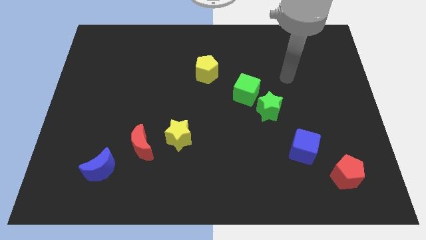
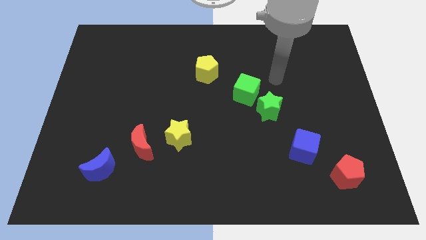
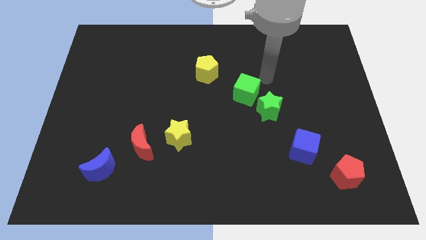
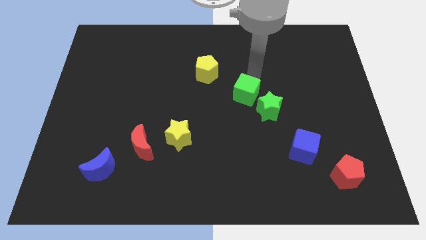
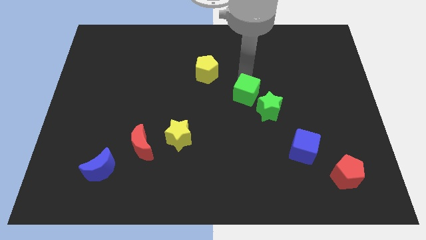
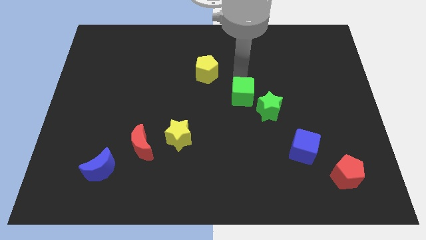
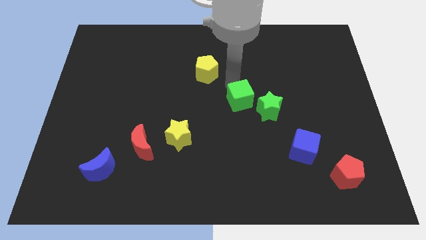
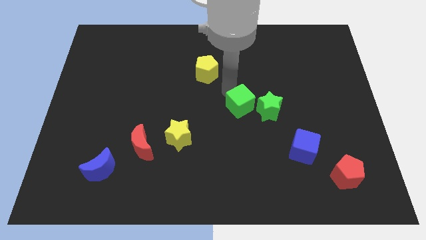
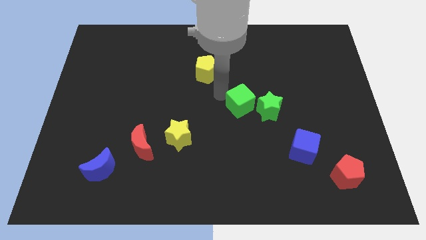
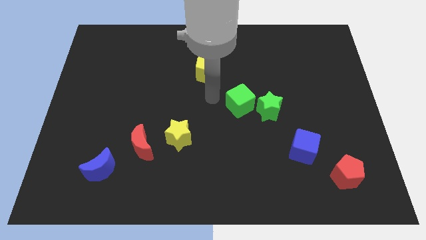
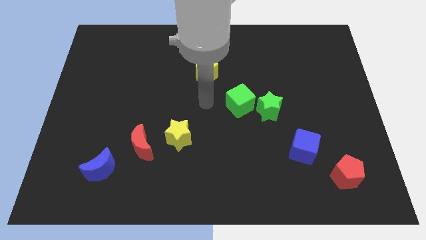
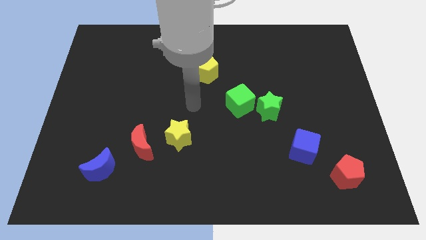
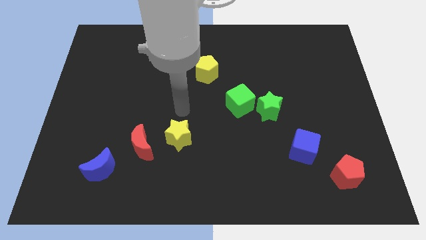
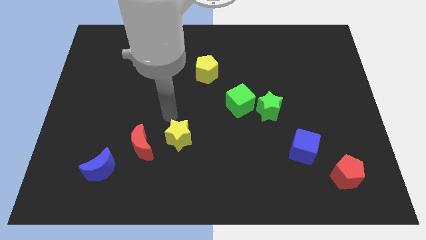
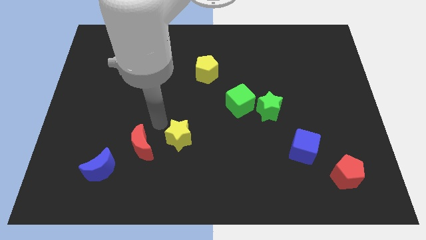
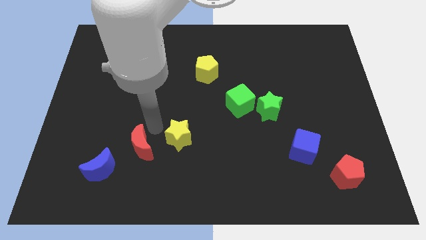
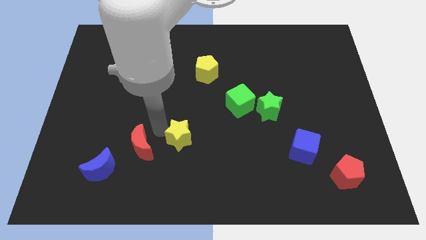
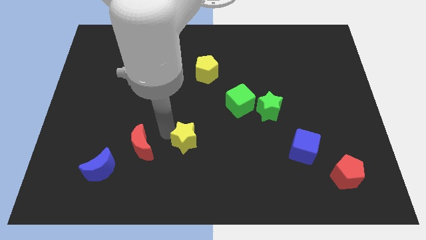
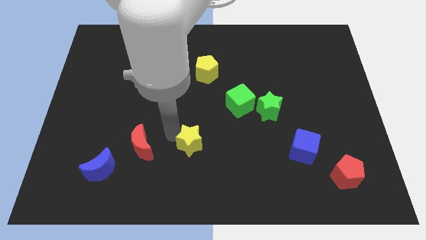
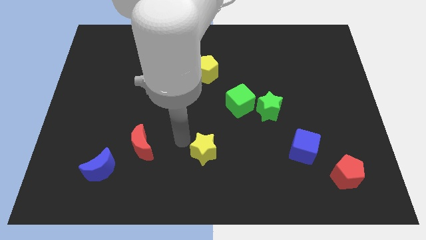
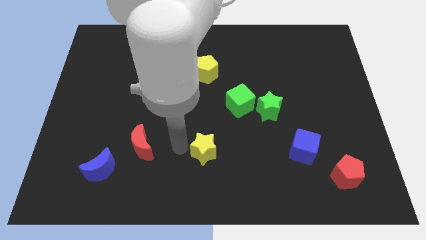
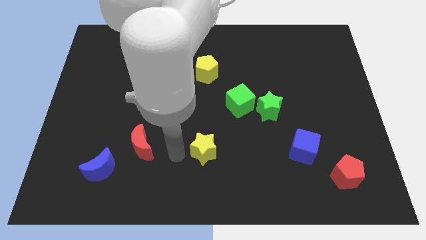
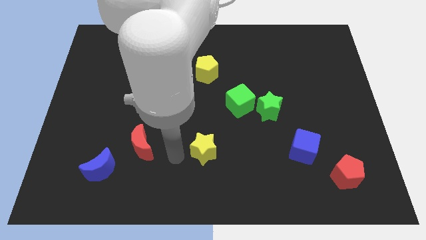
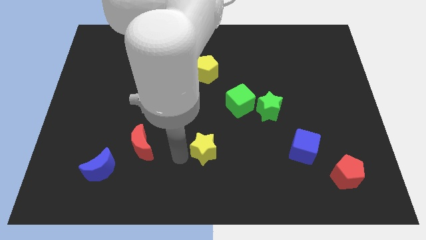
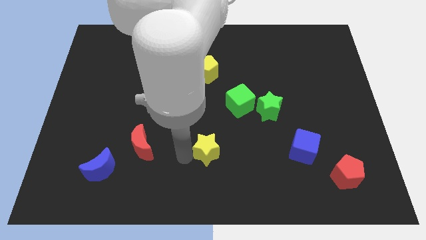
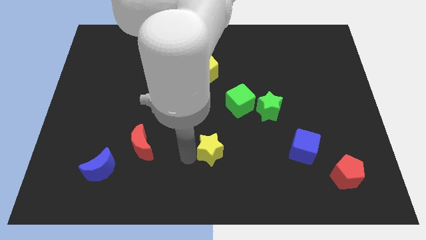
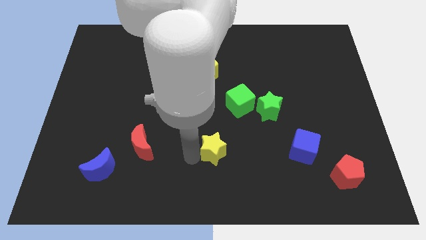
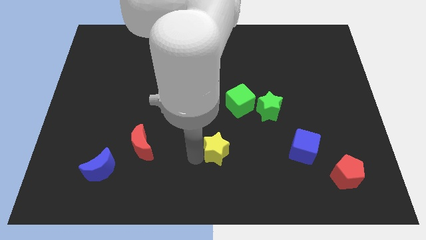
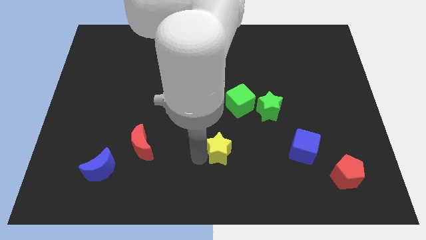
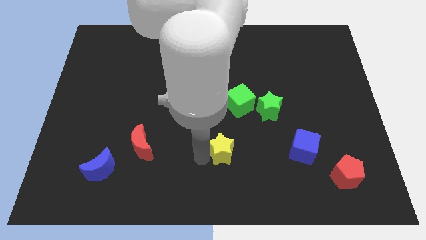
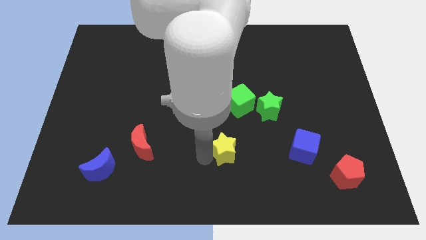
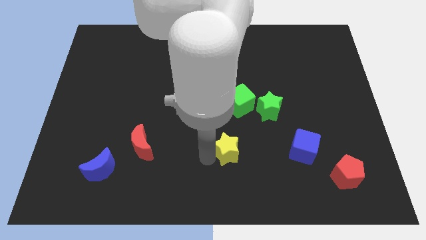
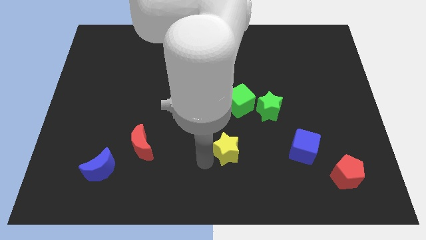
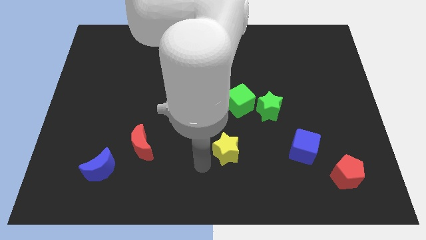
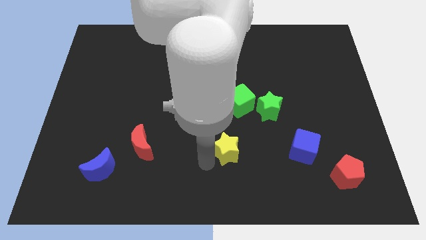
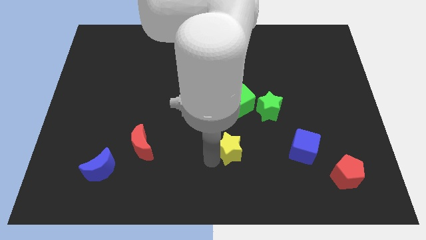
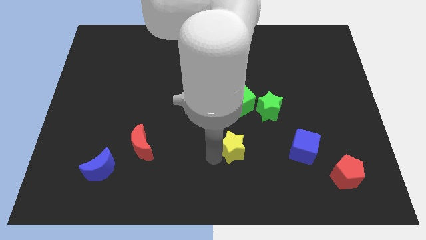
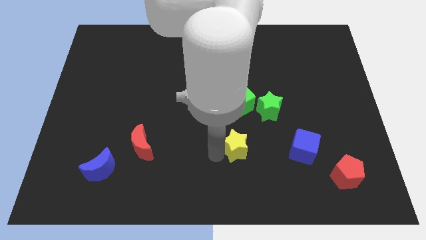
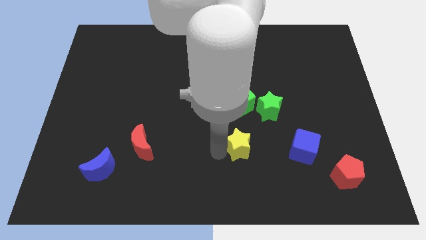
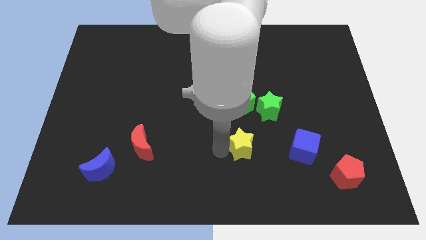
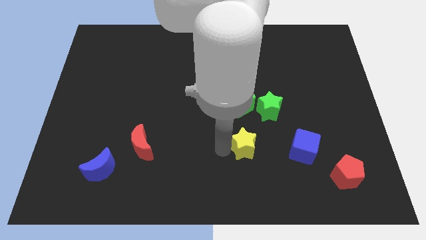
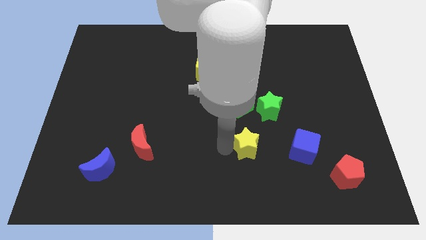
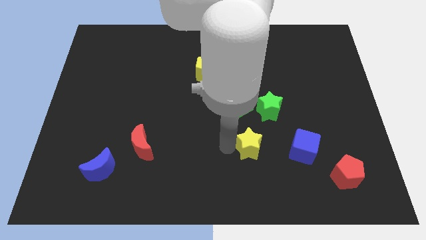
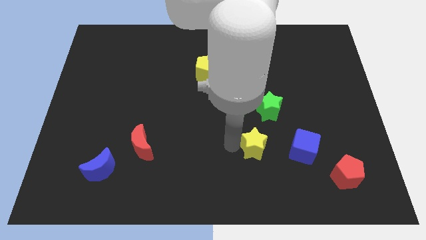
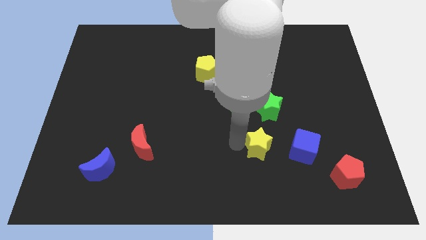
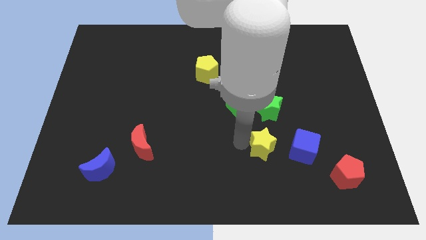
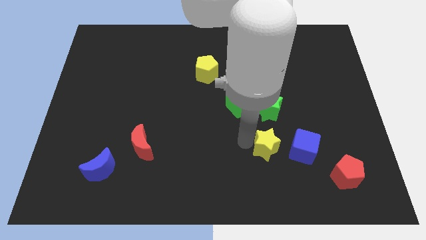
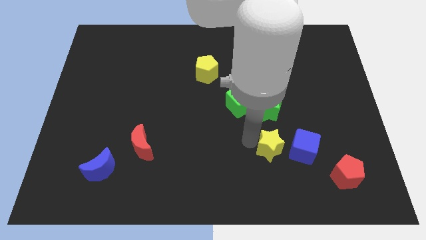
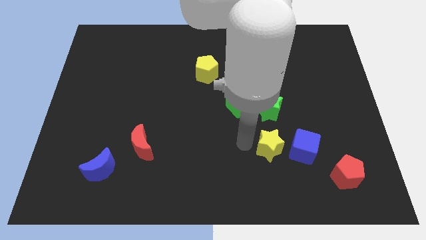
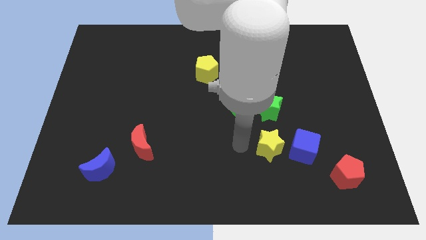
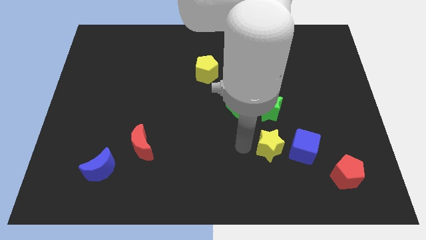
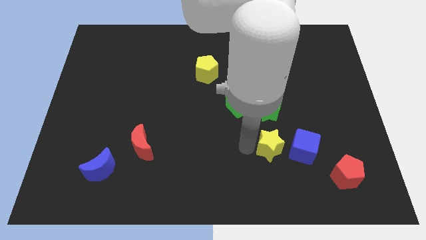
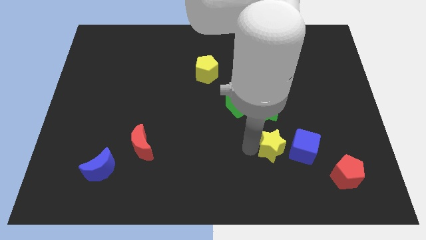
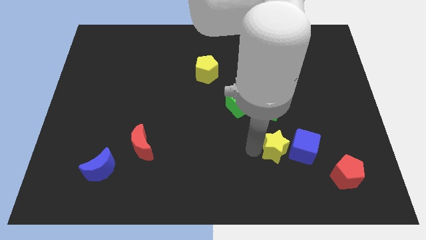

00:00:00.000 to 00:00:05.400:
move the yellow star to the blue cube

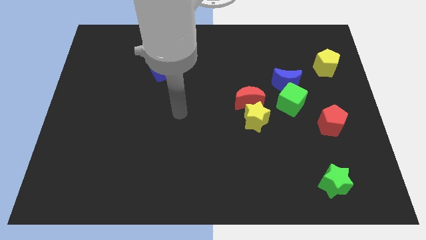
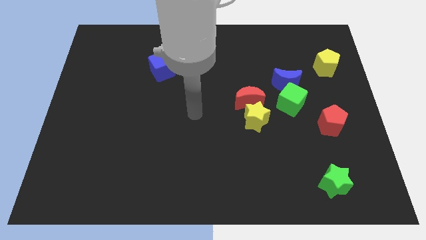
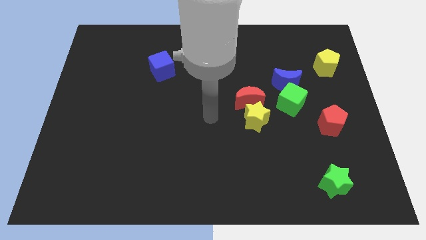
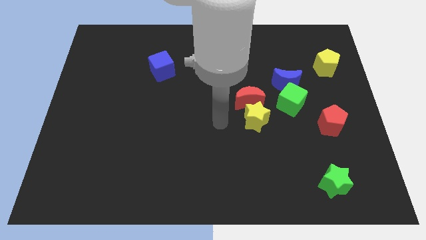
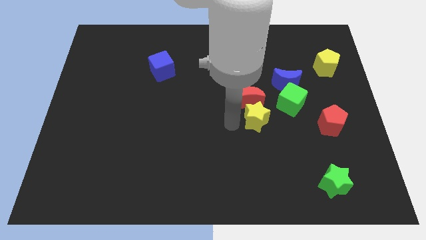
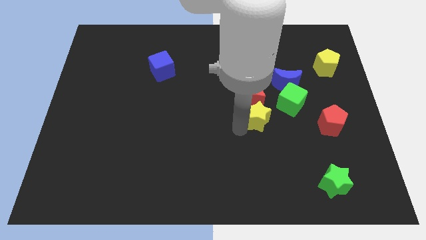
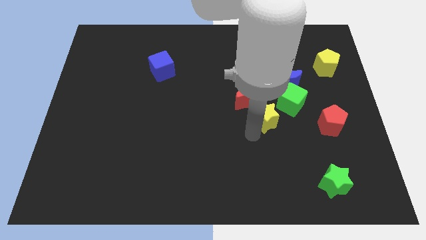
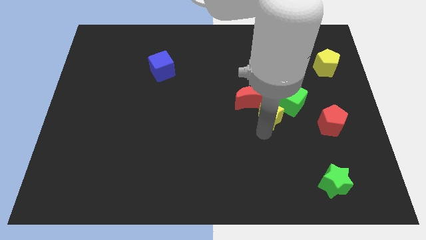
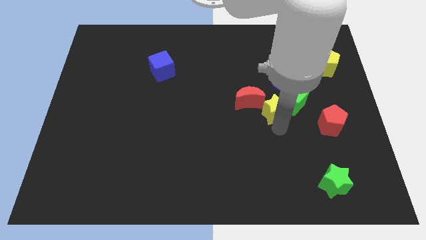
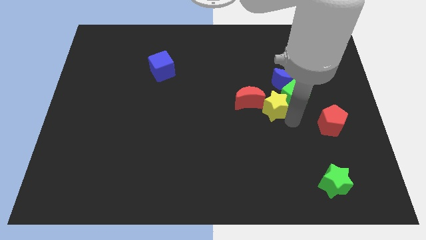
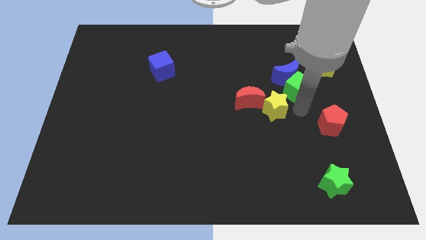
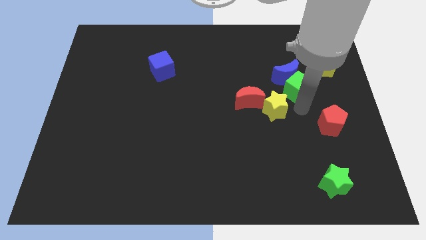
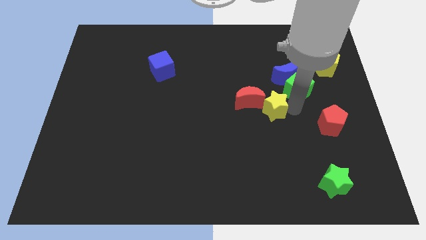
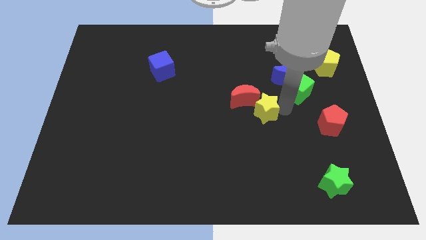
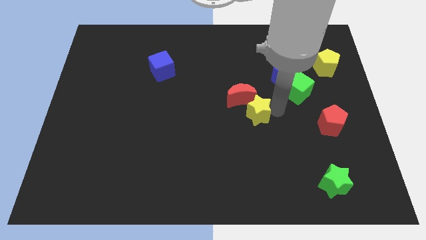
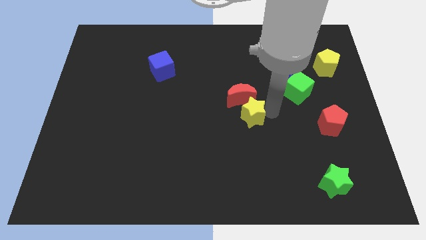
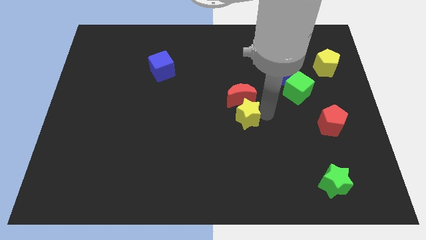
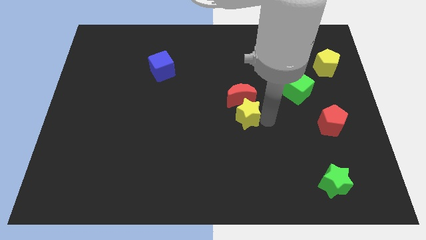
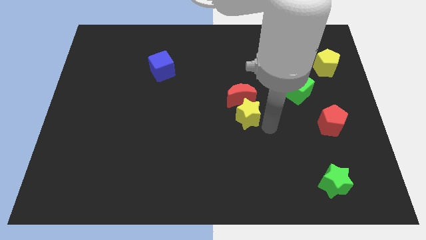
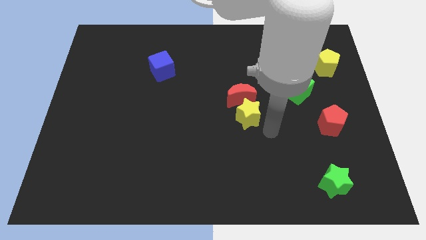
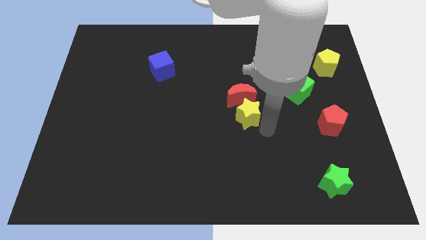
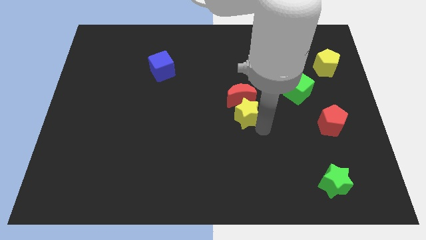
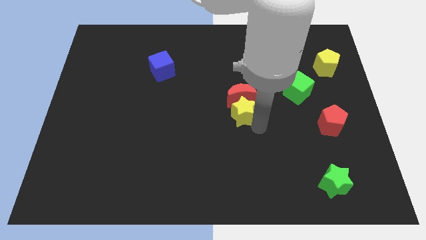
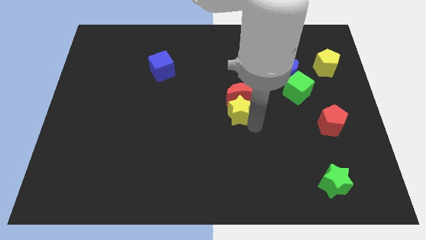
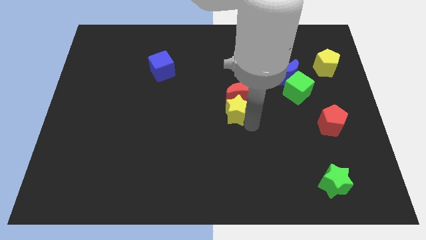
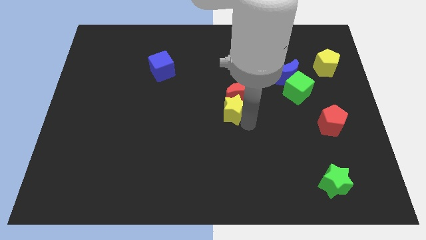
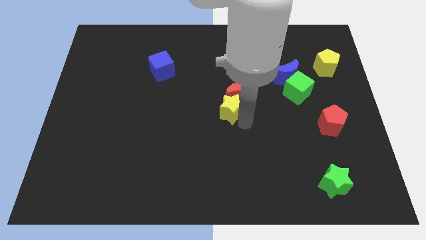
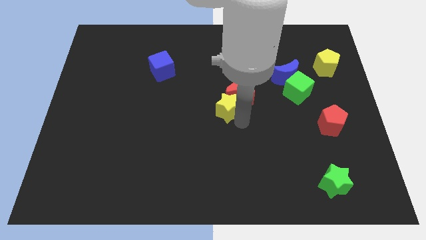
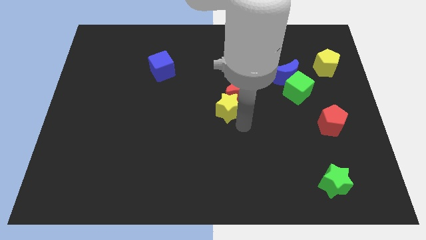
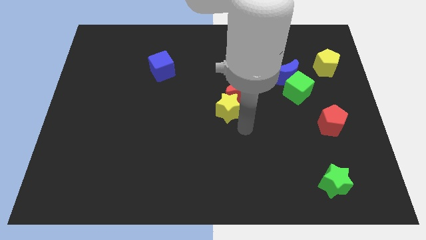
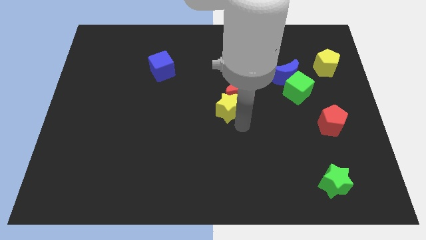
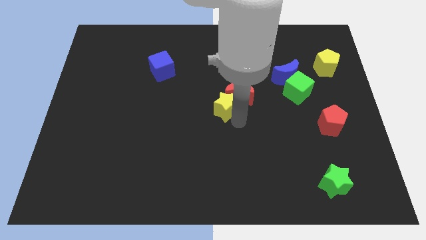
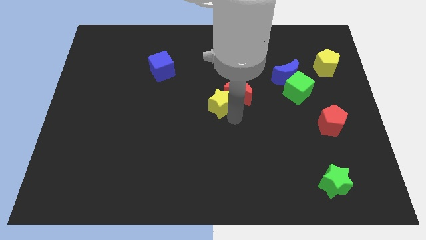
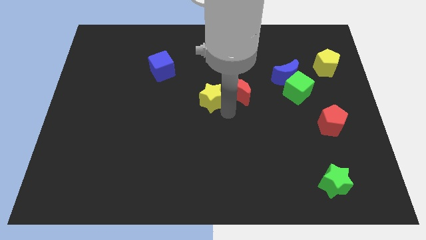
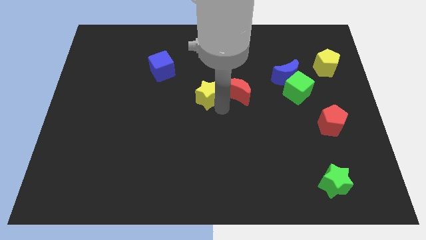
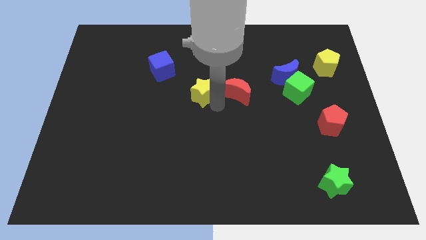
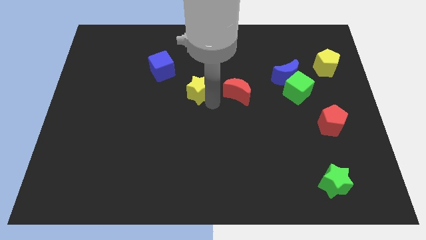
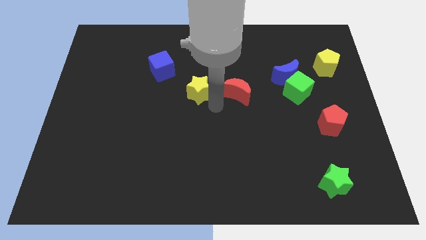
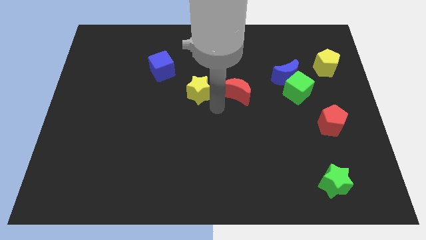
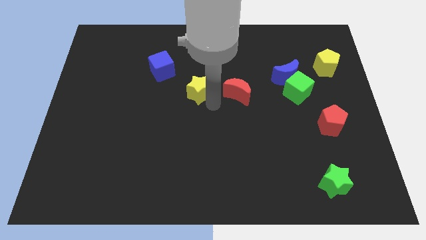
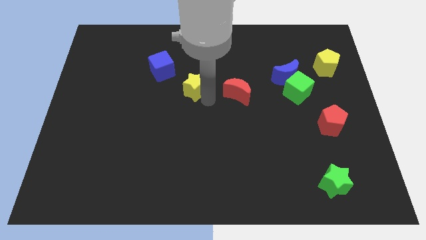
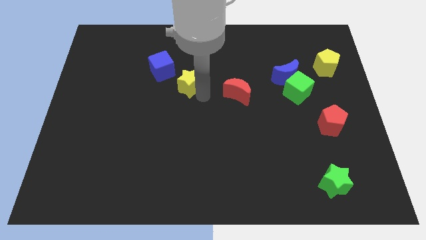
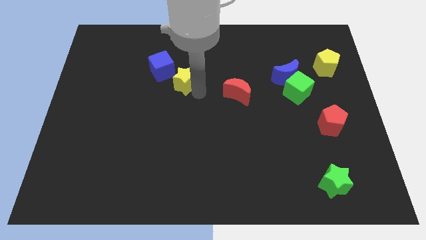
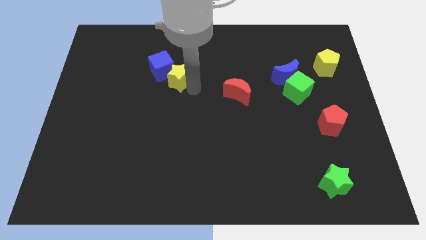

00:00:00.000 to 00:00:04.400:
put the yellow star towards the blue cube
